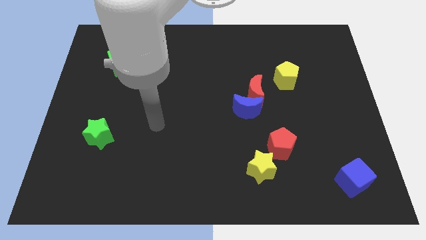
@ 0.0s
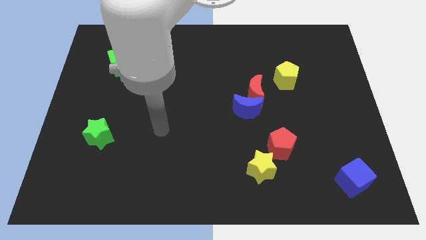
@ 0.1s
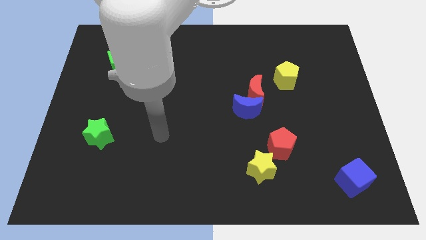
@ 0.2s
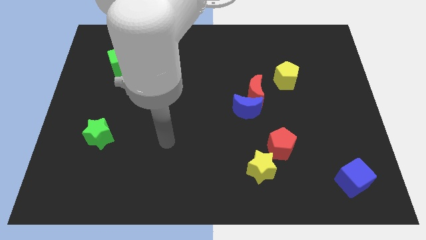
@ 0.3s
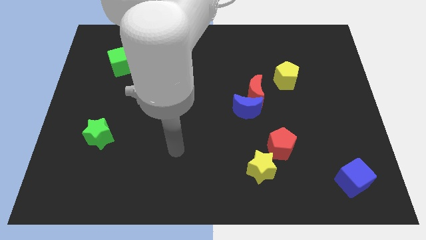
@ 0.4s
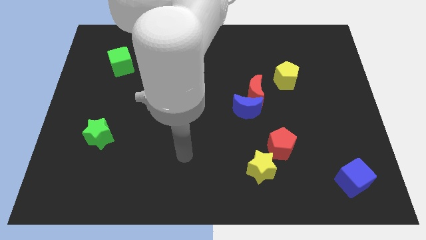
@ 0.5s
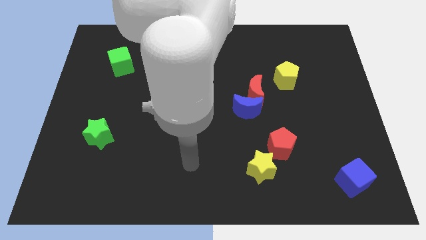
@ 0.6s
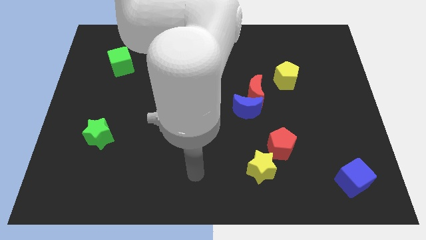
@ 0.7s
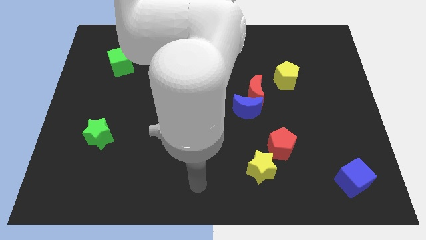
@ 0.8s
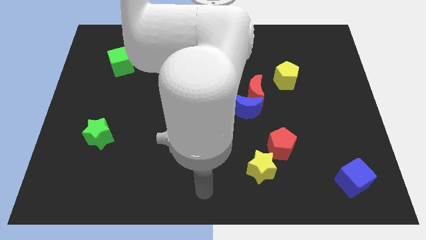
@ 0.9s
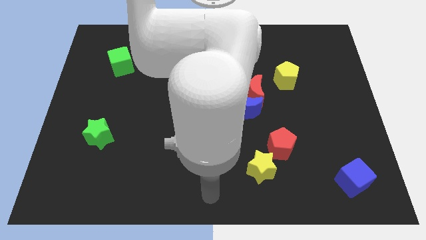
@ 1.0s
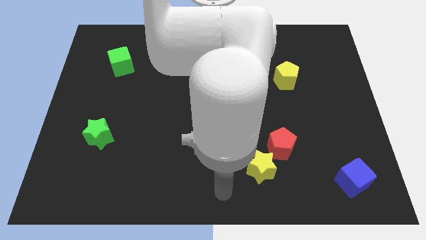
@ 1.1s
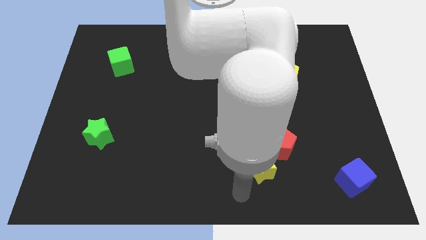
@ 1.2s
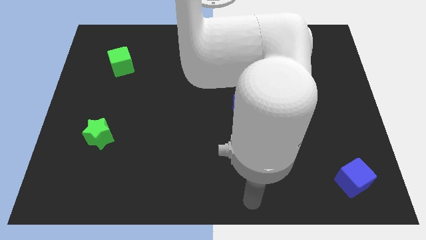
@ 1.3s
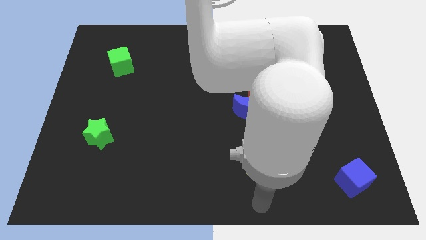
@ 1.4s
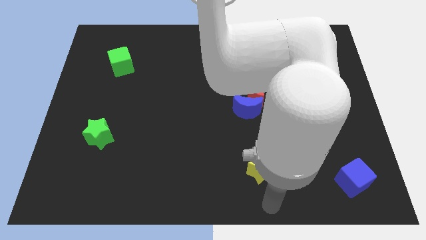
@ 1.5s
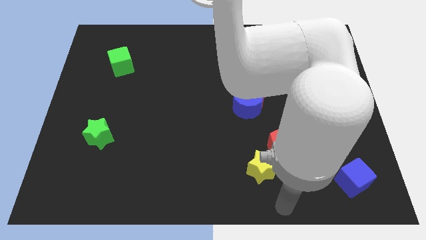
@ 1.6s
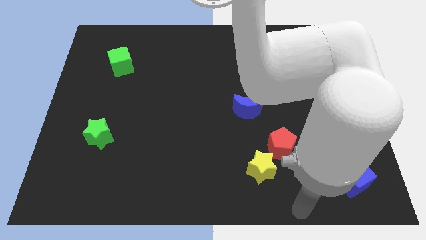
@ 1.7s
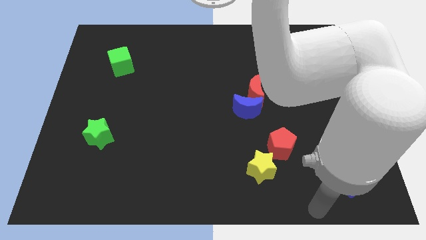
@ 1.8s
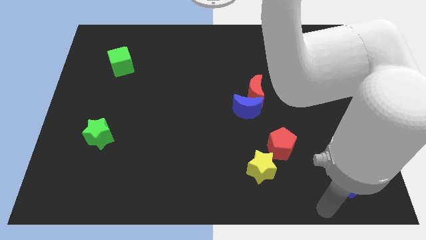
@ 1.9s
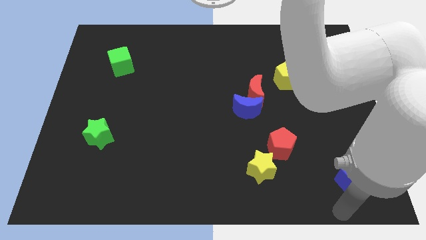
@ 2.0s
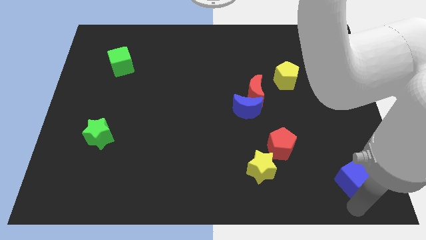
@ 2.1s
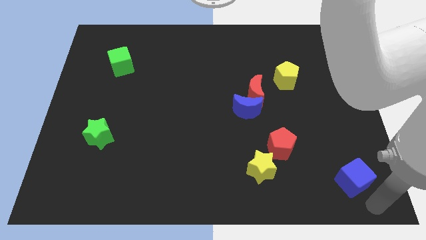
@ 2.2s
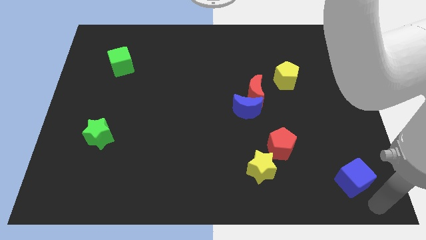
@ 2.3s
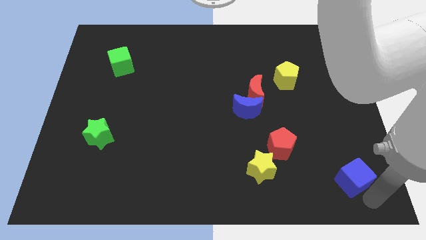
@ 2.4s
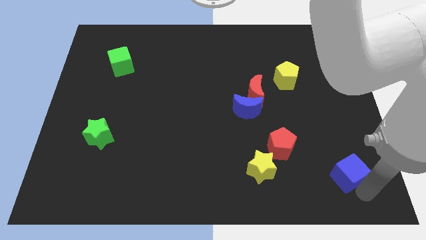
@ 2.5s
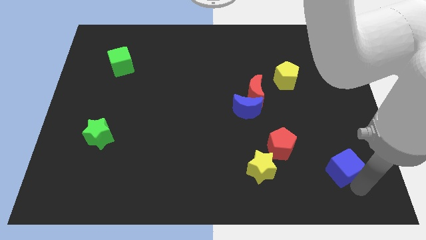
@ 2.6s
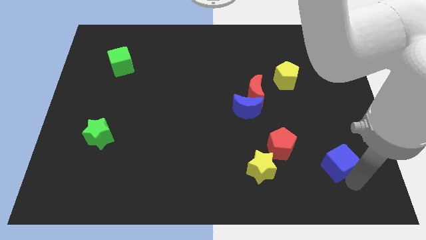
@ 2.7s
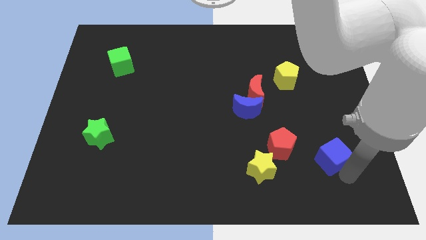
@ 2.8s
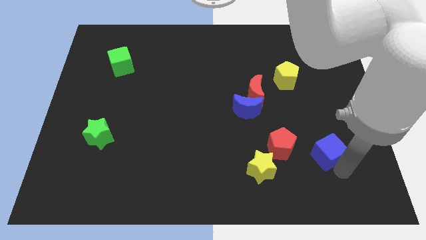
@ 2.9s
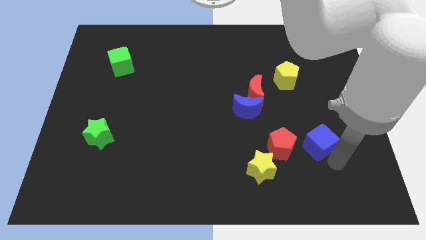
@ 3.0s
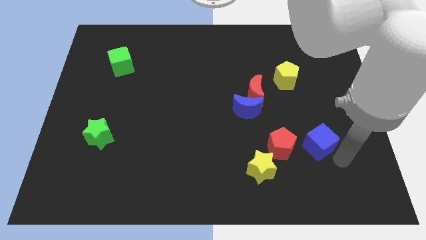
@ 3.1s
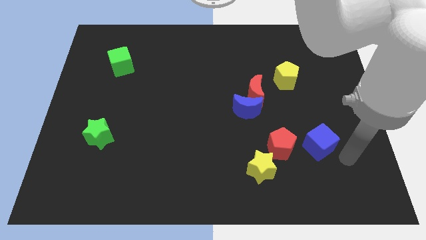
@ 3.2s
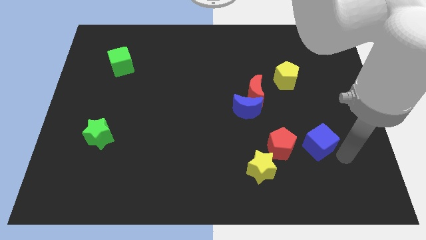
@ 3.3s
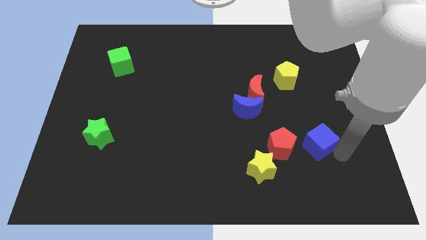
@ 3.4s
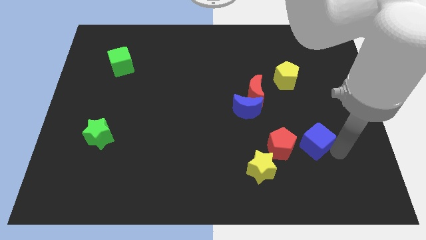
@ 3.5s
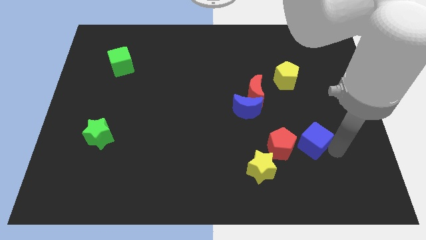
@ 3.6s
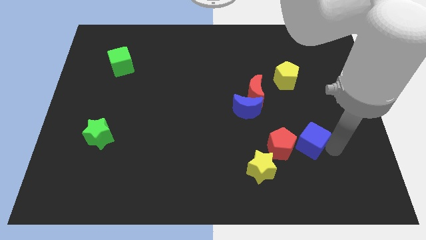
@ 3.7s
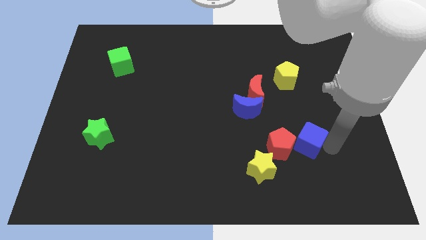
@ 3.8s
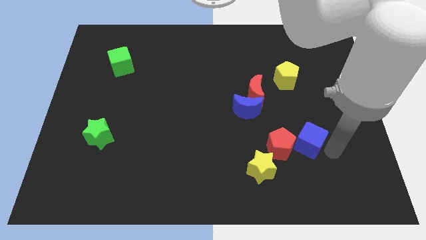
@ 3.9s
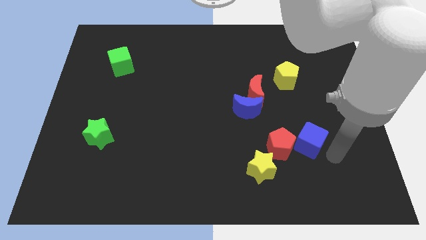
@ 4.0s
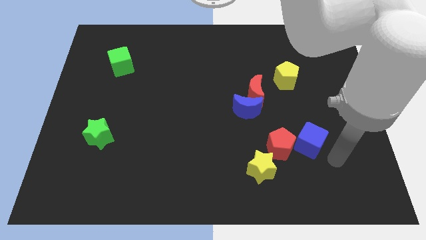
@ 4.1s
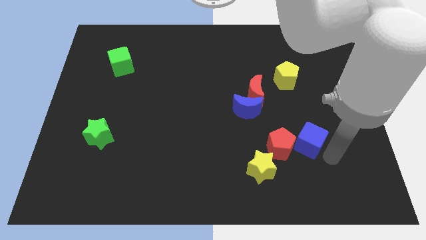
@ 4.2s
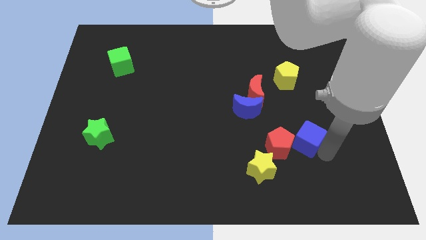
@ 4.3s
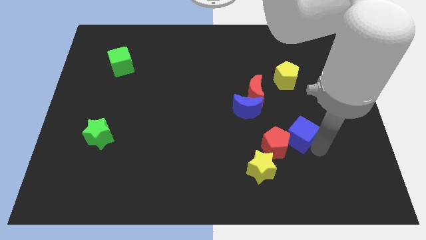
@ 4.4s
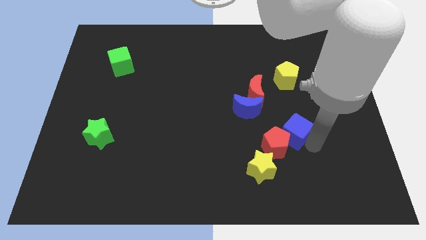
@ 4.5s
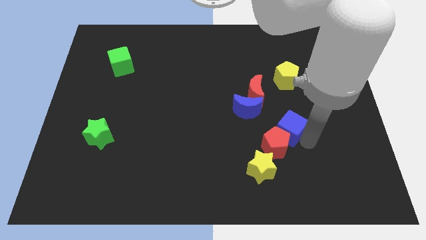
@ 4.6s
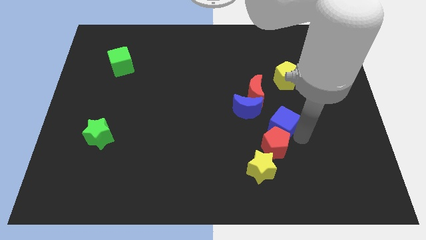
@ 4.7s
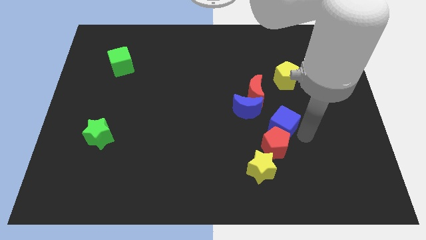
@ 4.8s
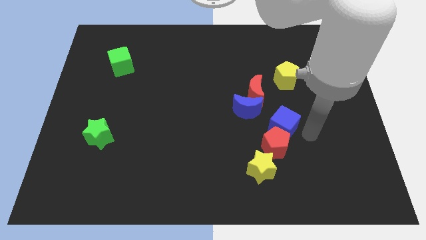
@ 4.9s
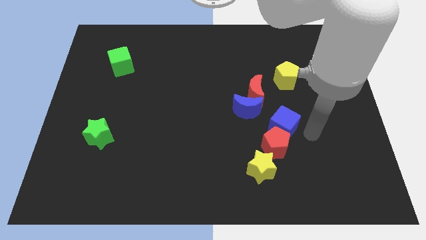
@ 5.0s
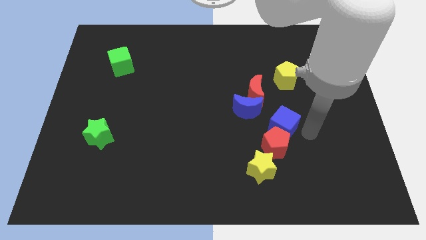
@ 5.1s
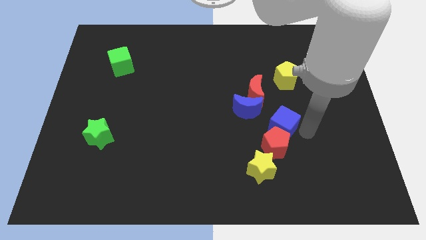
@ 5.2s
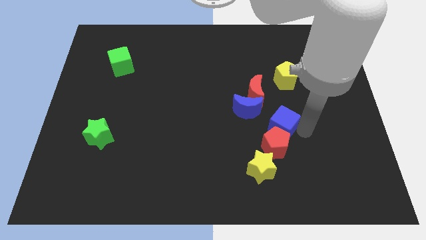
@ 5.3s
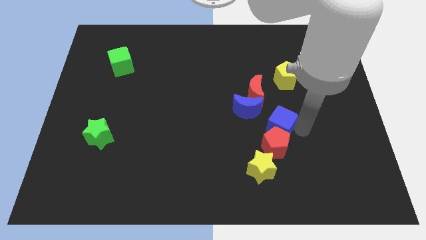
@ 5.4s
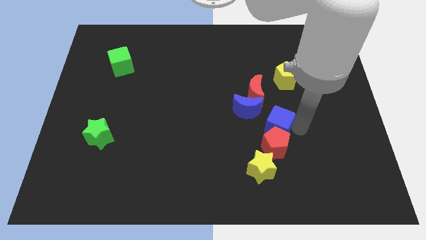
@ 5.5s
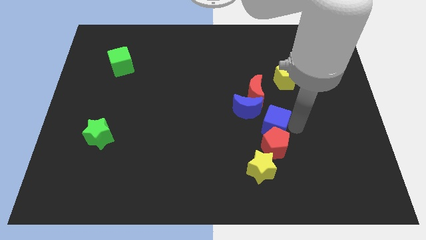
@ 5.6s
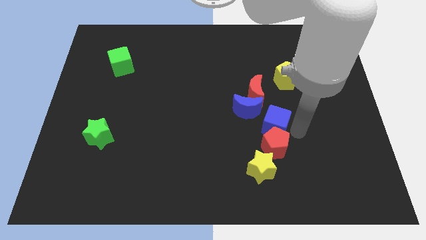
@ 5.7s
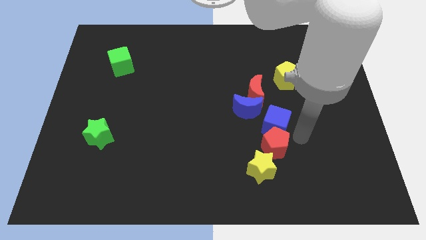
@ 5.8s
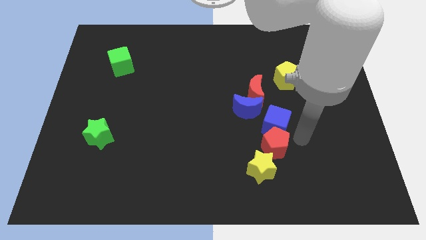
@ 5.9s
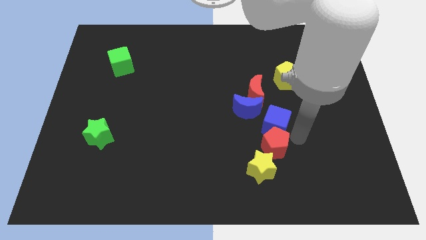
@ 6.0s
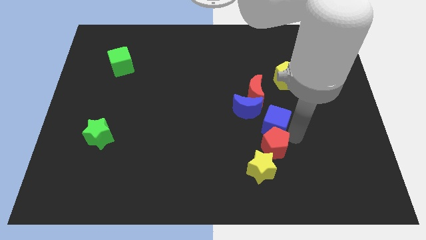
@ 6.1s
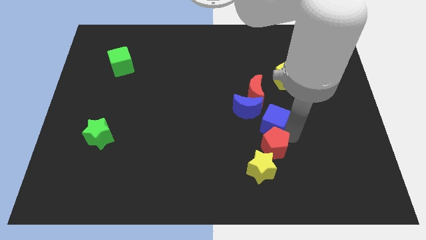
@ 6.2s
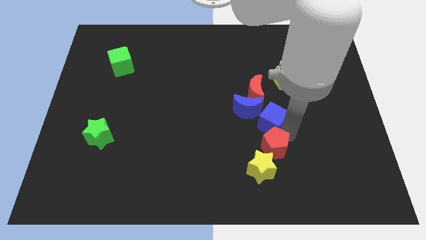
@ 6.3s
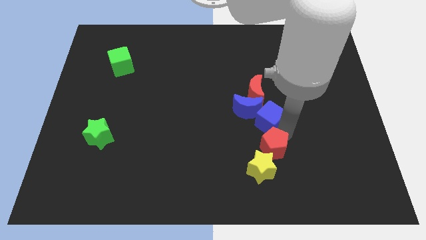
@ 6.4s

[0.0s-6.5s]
move the blue cube close to the blue moon

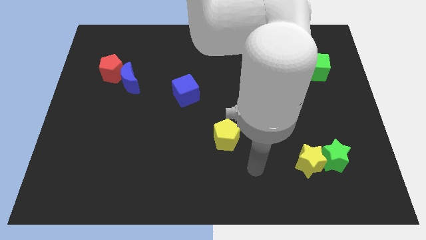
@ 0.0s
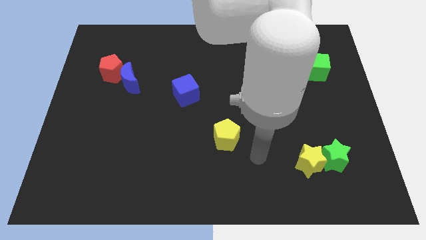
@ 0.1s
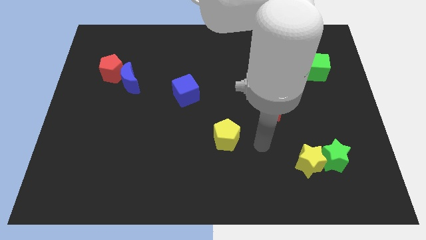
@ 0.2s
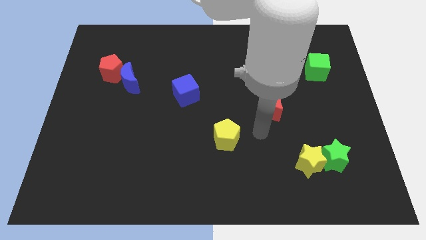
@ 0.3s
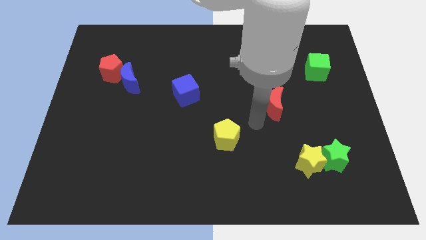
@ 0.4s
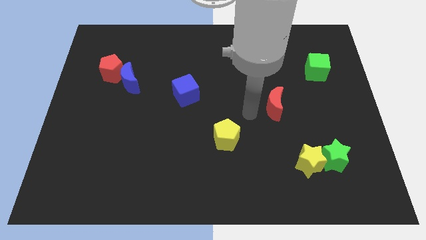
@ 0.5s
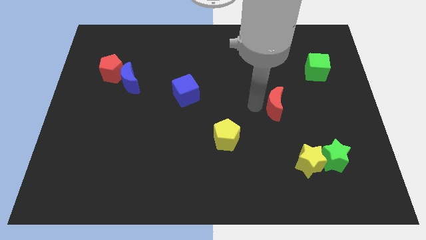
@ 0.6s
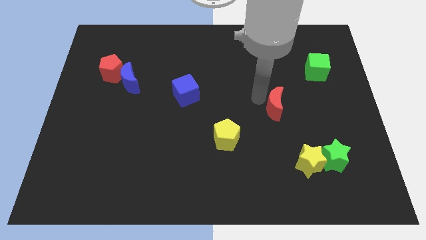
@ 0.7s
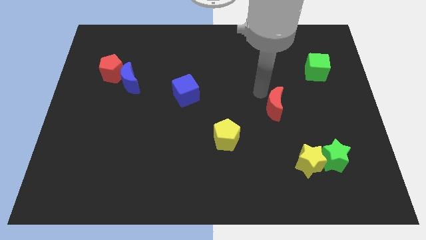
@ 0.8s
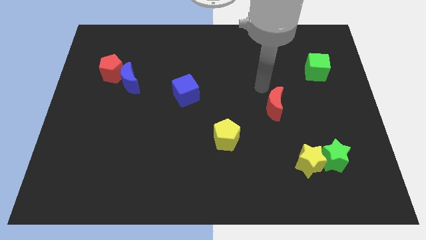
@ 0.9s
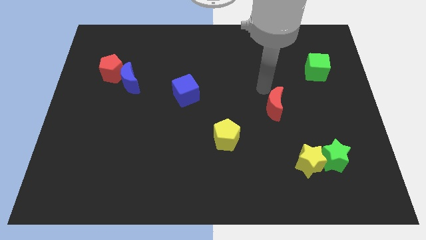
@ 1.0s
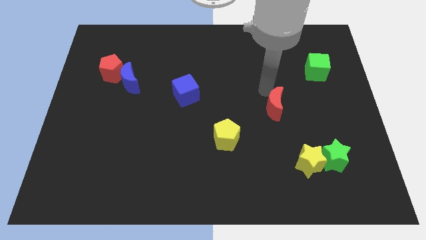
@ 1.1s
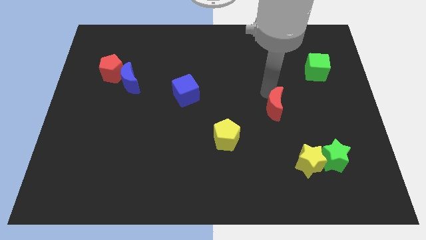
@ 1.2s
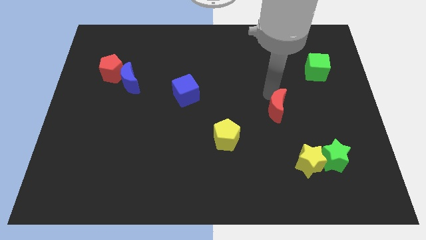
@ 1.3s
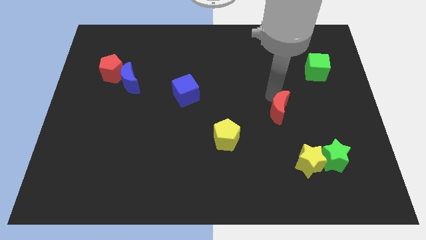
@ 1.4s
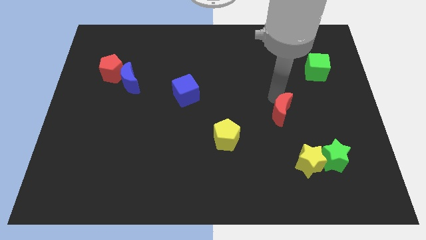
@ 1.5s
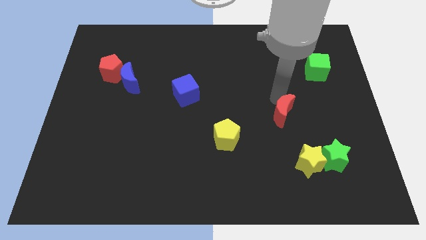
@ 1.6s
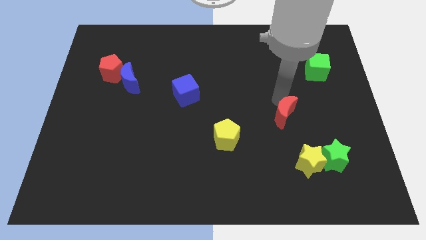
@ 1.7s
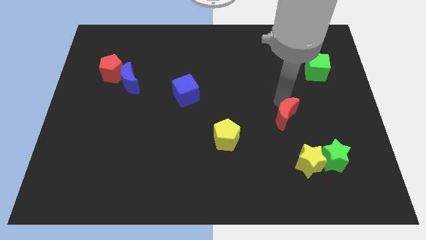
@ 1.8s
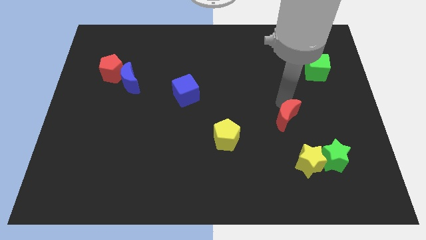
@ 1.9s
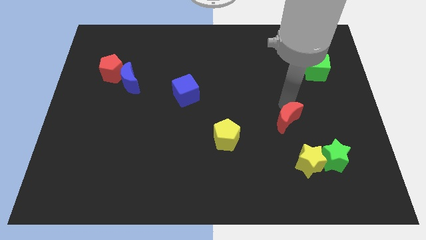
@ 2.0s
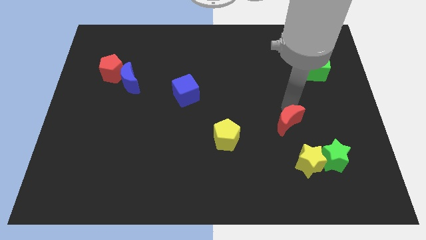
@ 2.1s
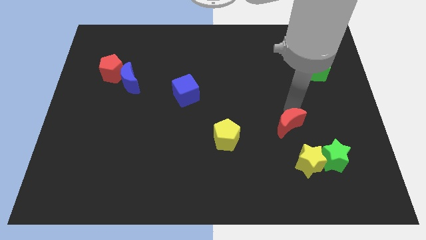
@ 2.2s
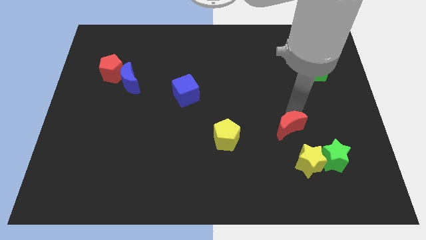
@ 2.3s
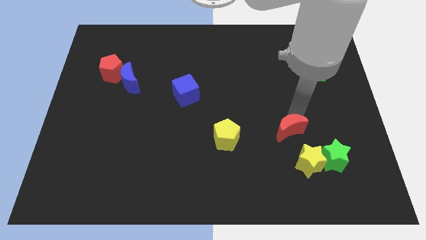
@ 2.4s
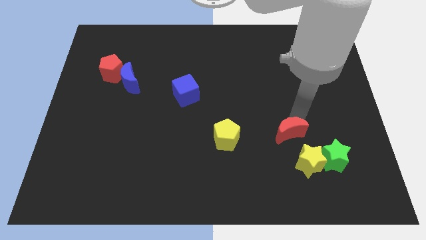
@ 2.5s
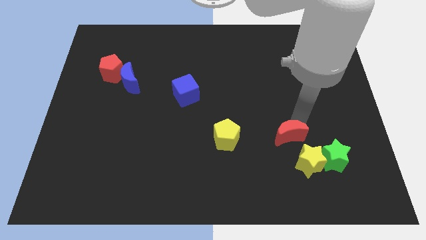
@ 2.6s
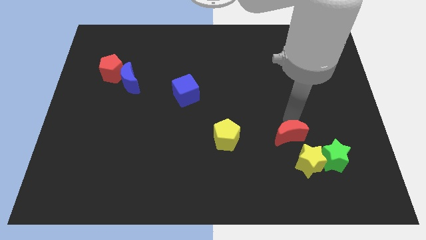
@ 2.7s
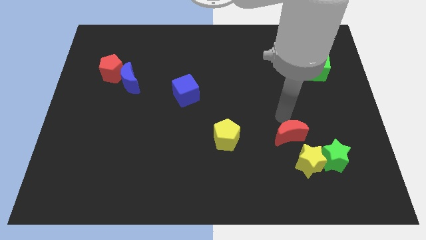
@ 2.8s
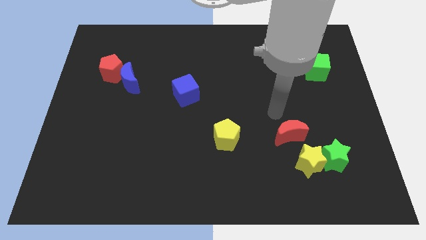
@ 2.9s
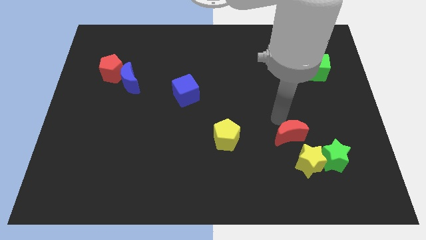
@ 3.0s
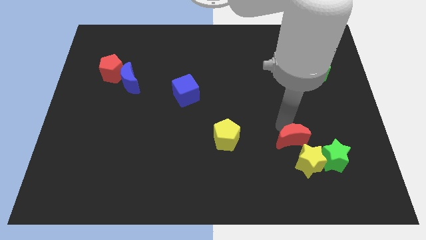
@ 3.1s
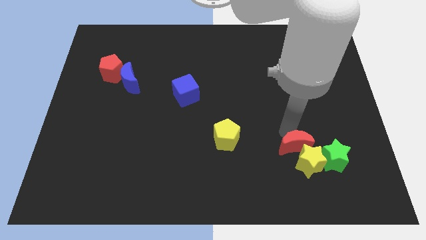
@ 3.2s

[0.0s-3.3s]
move the red moon next to the yellow star
